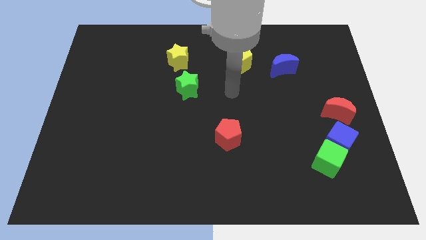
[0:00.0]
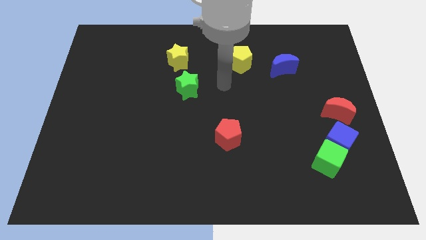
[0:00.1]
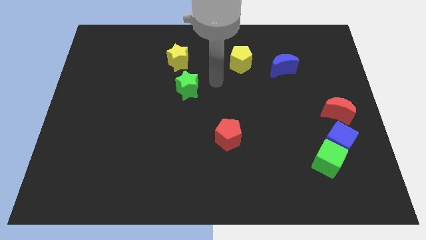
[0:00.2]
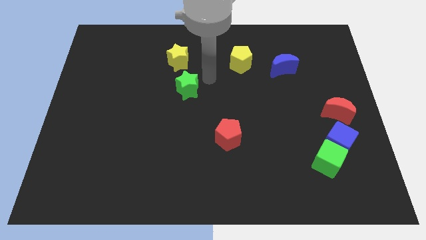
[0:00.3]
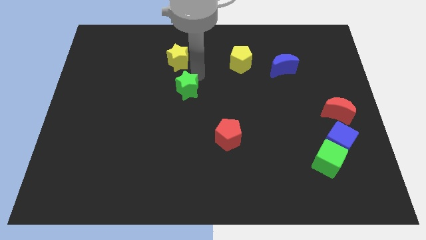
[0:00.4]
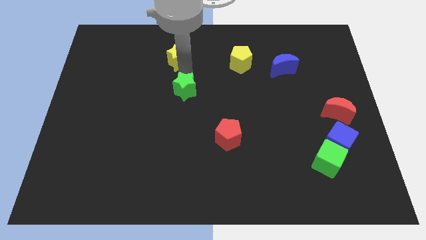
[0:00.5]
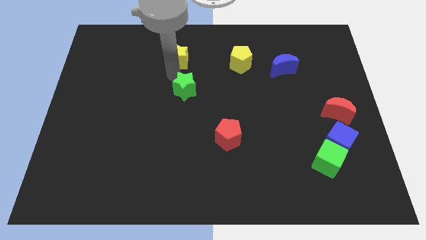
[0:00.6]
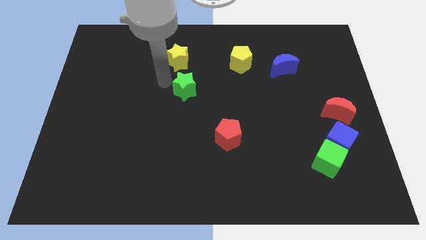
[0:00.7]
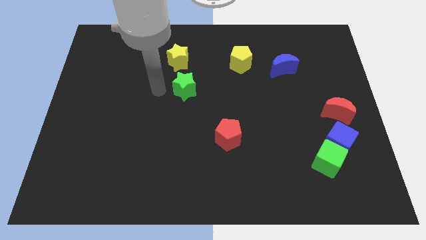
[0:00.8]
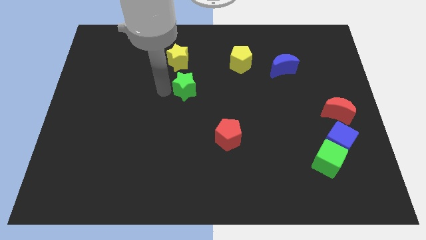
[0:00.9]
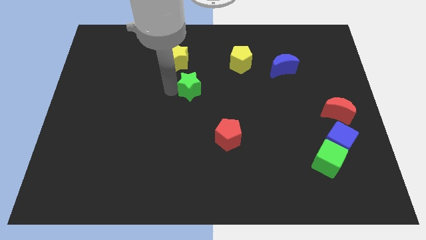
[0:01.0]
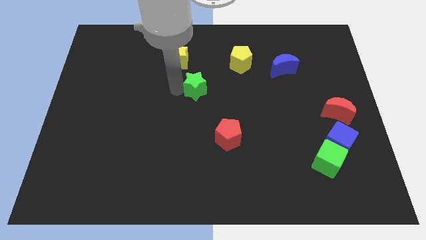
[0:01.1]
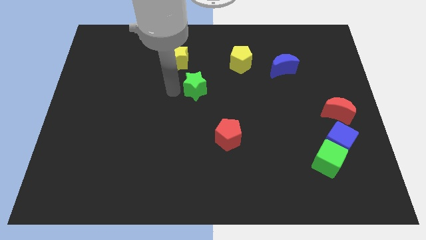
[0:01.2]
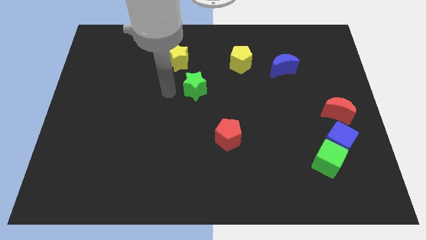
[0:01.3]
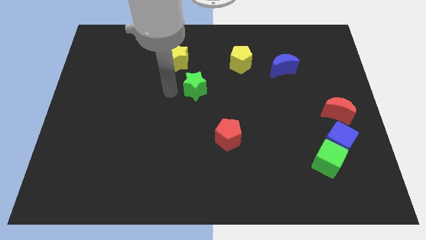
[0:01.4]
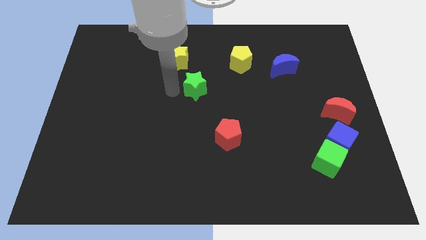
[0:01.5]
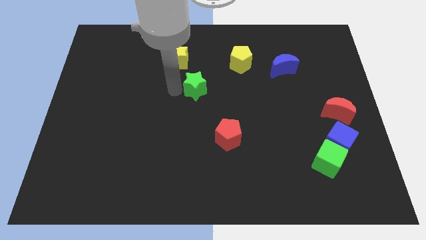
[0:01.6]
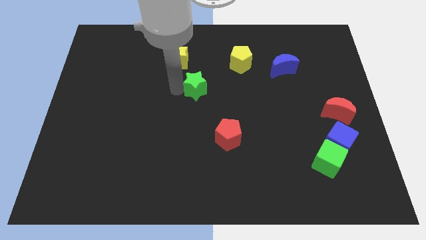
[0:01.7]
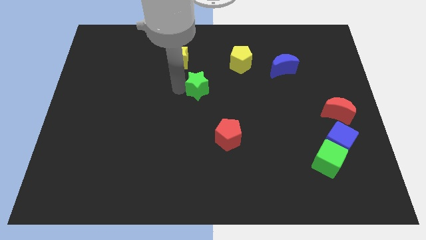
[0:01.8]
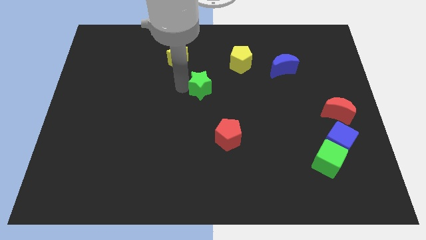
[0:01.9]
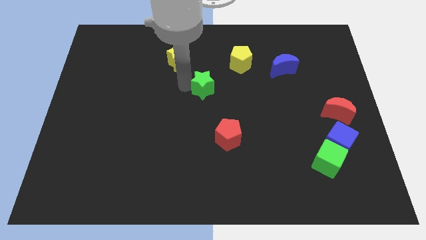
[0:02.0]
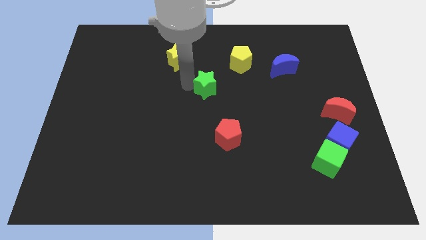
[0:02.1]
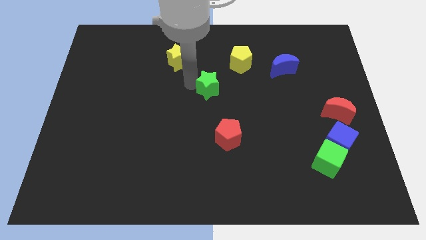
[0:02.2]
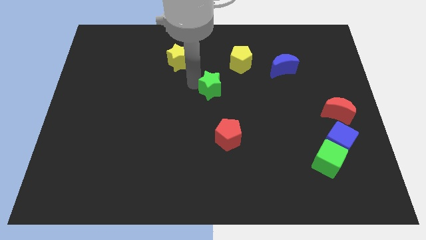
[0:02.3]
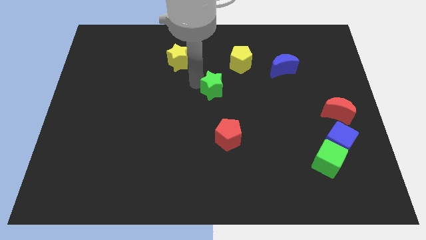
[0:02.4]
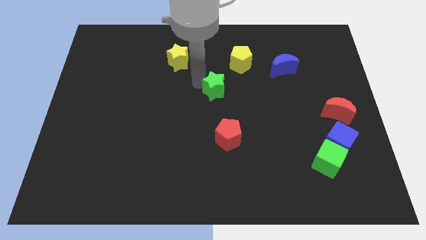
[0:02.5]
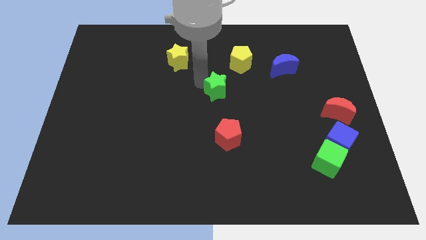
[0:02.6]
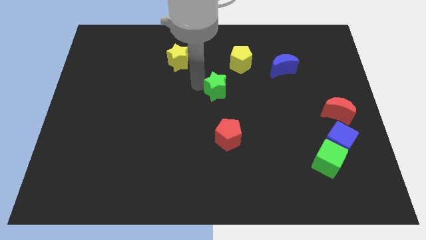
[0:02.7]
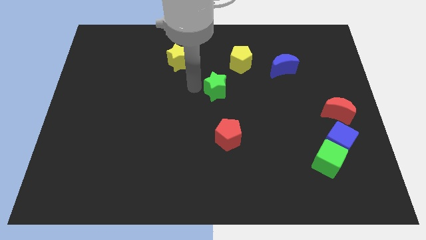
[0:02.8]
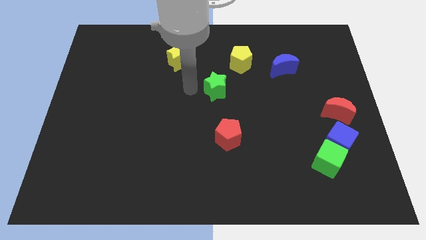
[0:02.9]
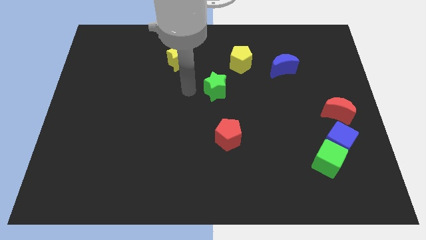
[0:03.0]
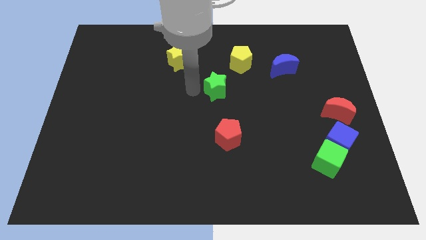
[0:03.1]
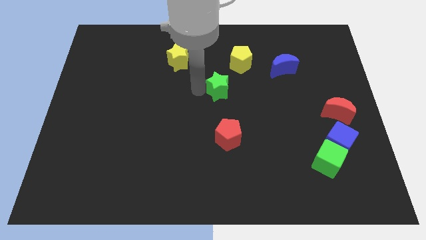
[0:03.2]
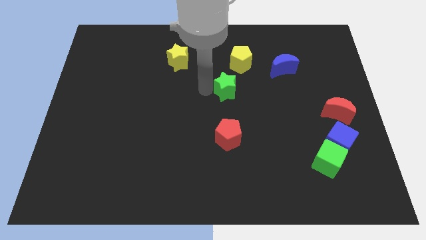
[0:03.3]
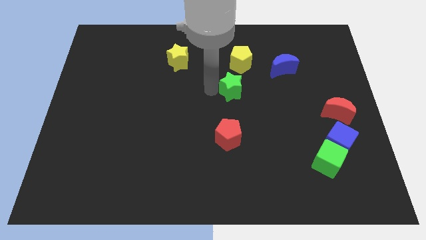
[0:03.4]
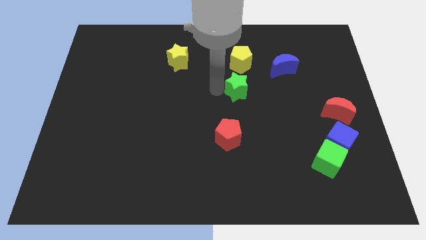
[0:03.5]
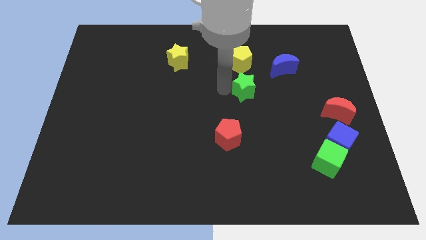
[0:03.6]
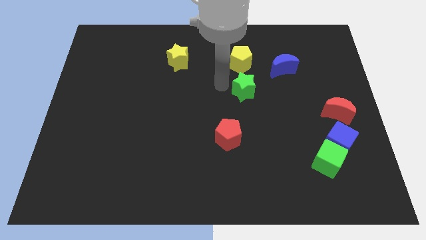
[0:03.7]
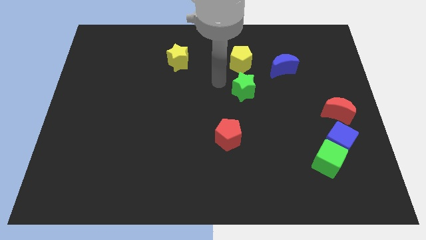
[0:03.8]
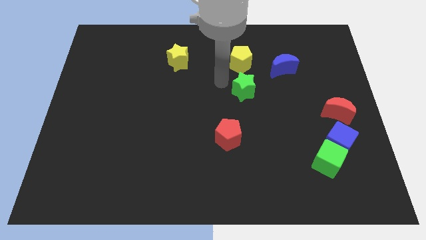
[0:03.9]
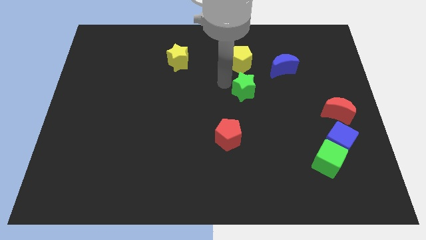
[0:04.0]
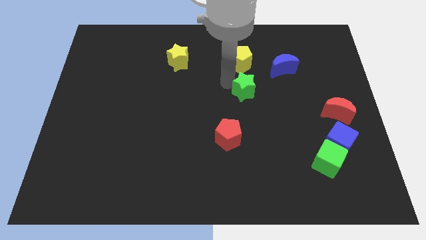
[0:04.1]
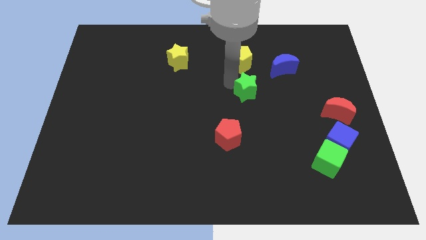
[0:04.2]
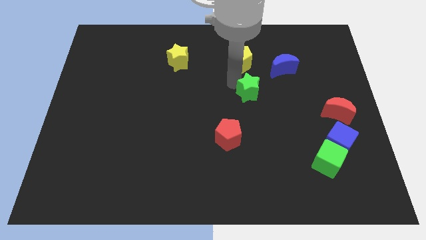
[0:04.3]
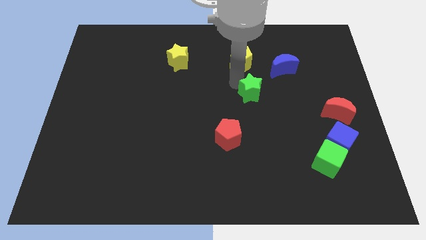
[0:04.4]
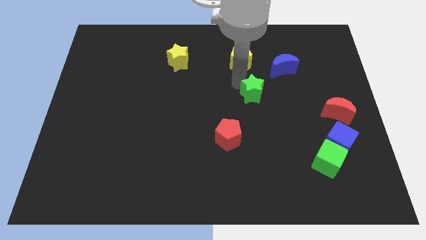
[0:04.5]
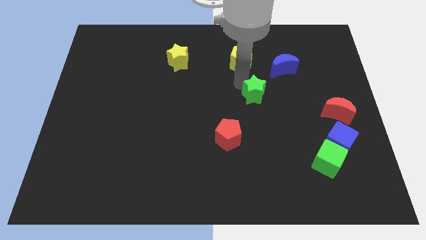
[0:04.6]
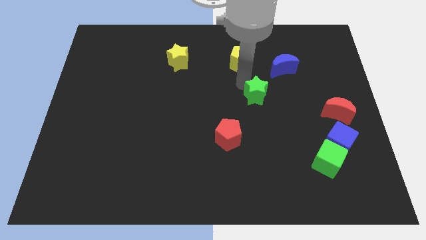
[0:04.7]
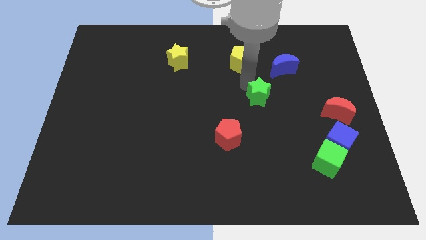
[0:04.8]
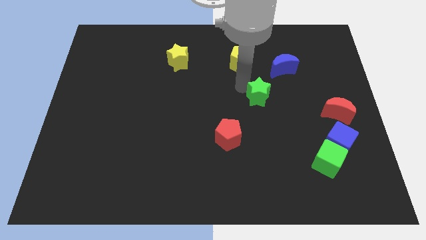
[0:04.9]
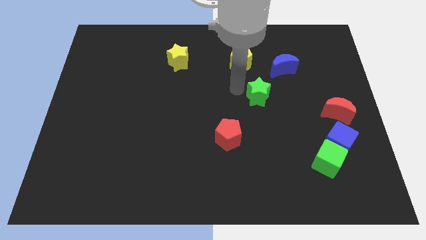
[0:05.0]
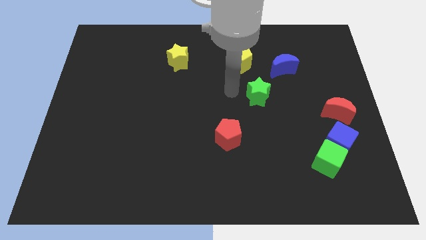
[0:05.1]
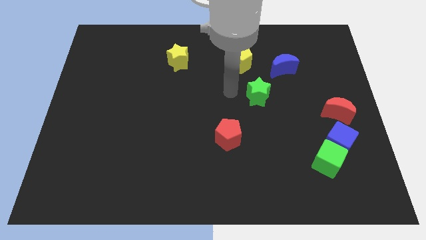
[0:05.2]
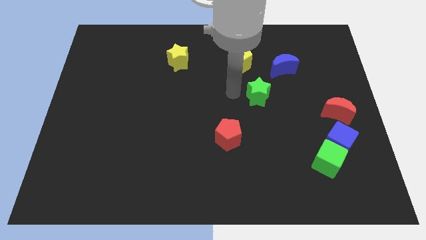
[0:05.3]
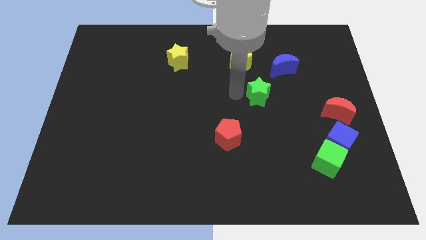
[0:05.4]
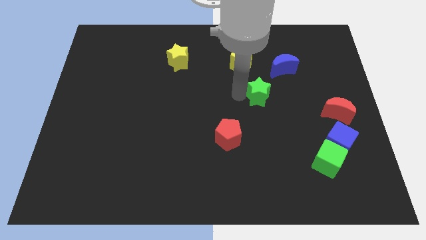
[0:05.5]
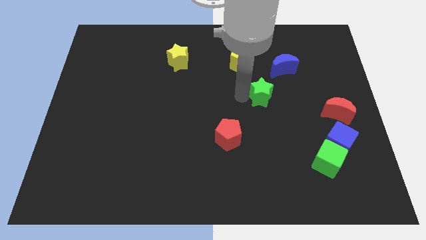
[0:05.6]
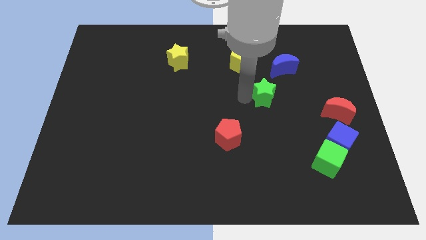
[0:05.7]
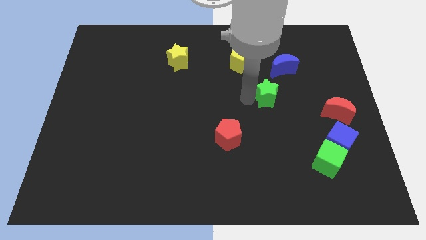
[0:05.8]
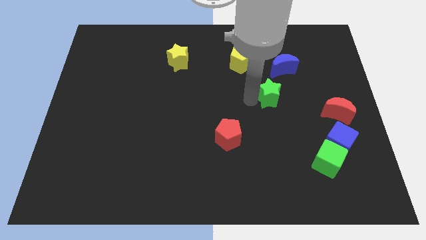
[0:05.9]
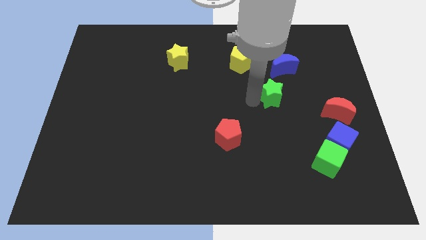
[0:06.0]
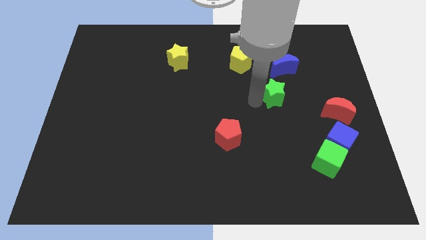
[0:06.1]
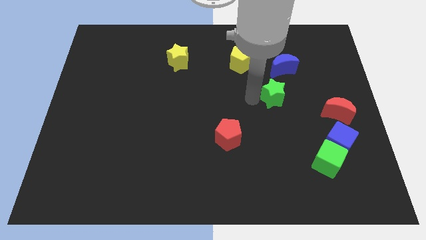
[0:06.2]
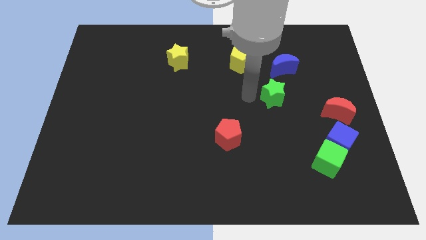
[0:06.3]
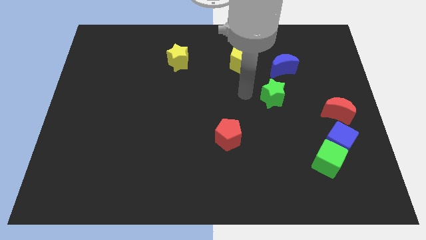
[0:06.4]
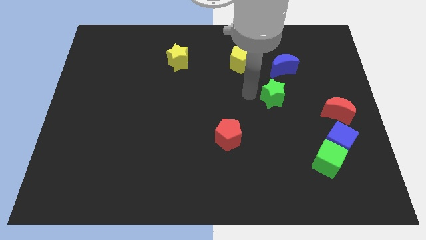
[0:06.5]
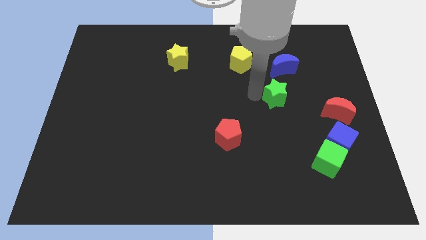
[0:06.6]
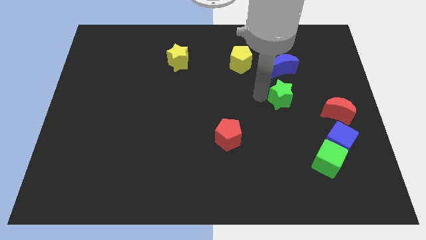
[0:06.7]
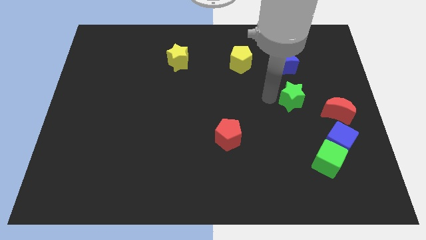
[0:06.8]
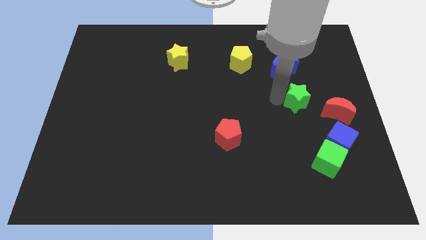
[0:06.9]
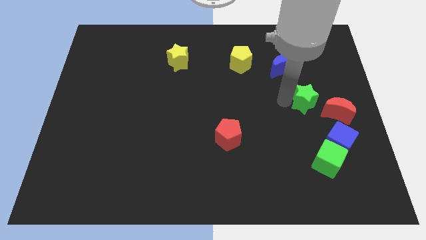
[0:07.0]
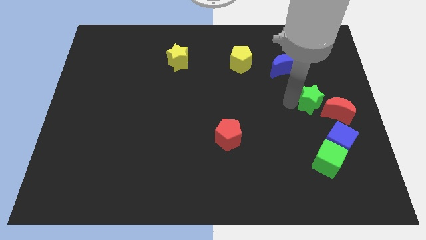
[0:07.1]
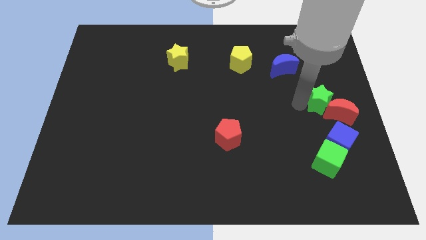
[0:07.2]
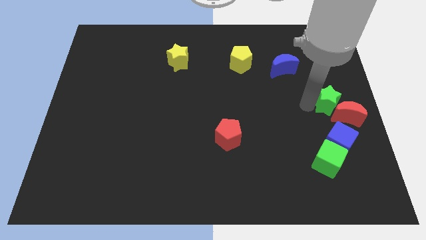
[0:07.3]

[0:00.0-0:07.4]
push the green star to the right side
